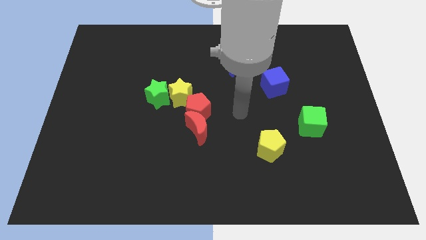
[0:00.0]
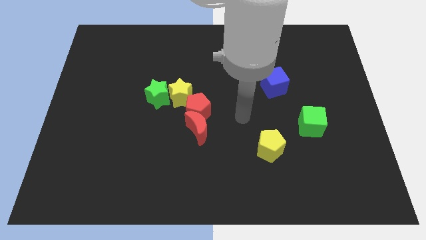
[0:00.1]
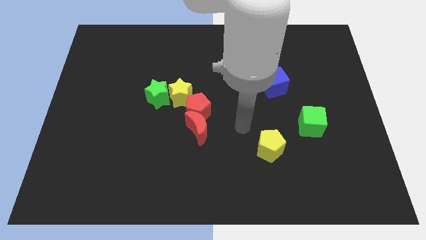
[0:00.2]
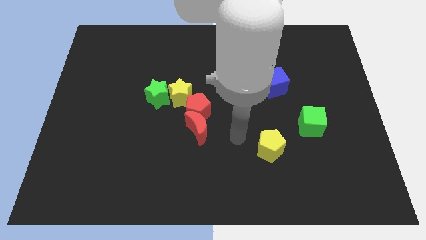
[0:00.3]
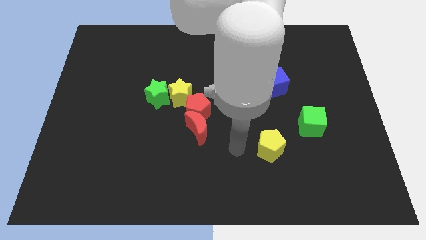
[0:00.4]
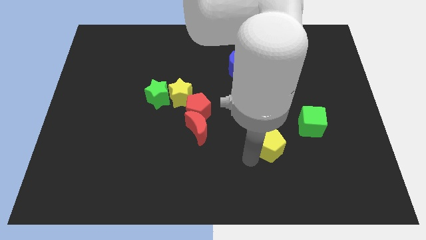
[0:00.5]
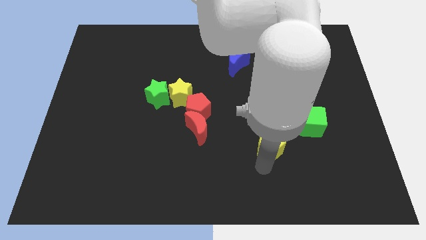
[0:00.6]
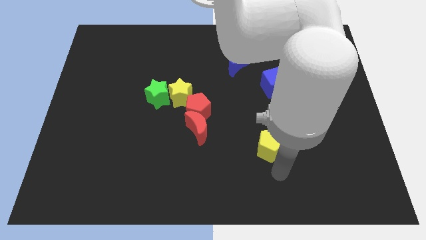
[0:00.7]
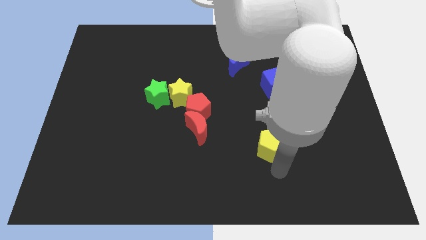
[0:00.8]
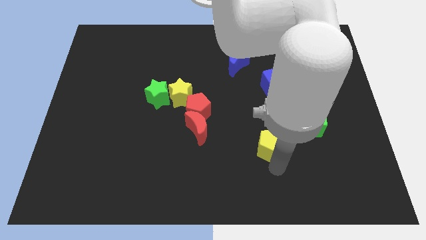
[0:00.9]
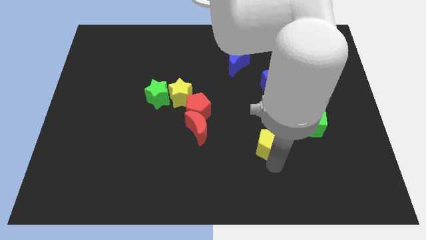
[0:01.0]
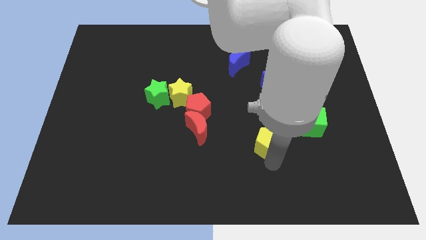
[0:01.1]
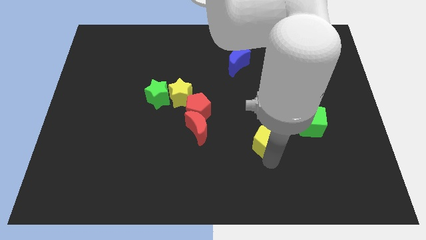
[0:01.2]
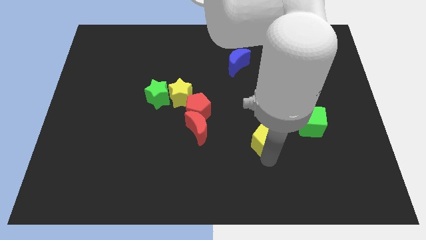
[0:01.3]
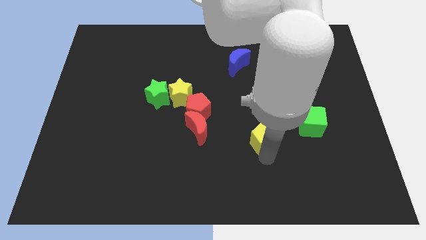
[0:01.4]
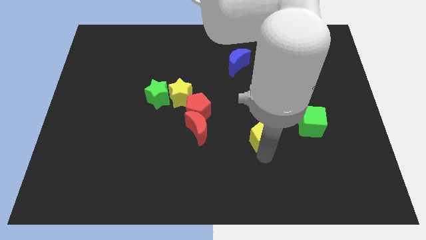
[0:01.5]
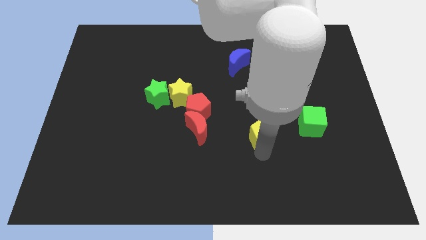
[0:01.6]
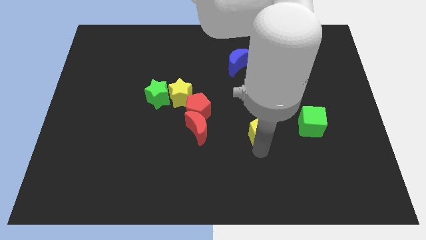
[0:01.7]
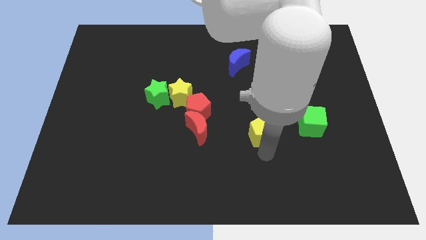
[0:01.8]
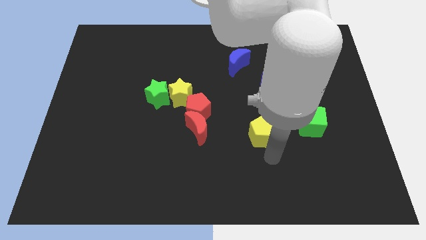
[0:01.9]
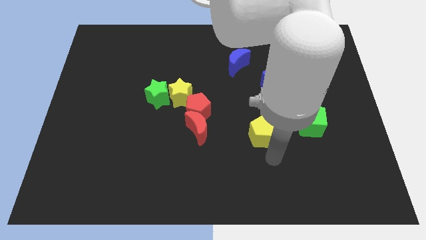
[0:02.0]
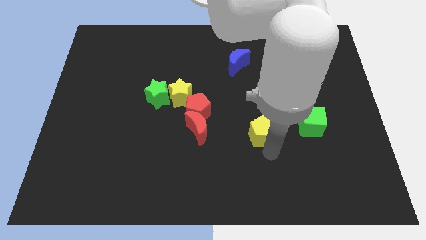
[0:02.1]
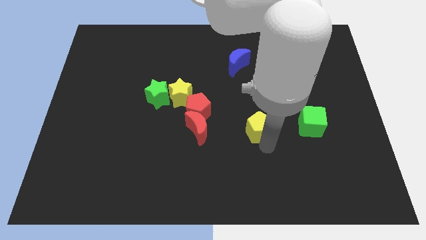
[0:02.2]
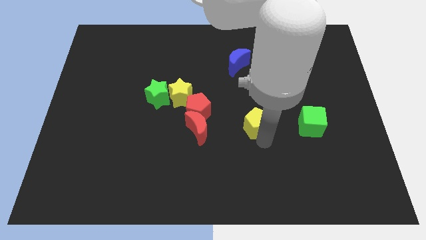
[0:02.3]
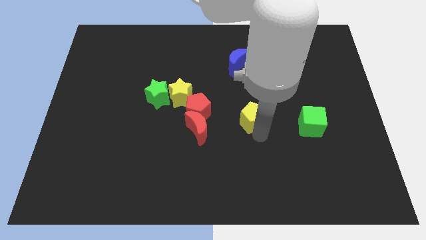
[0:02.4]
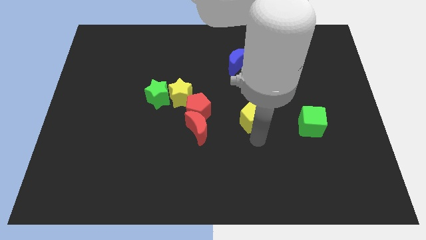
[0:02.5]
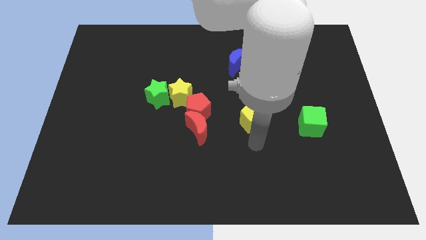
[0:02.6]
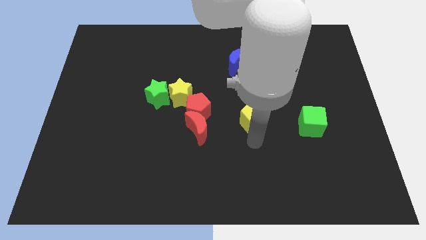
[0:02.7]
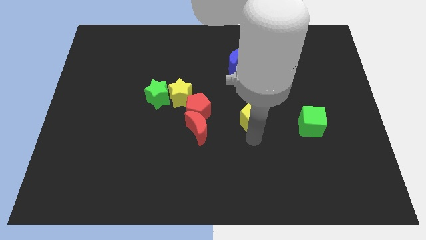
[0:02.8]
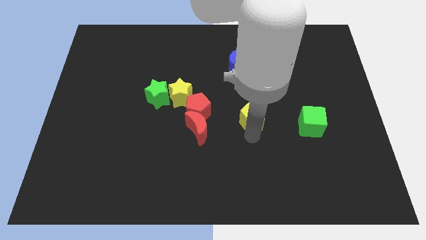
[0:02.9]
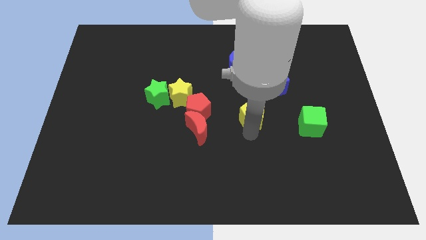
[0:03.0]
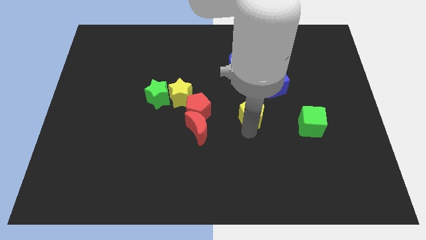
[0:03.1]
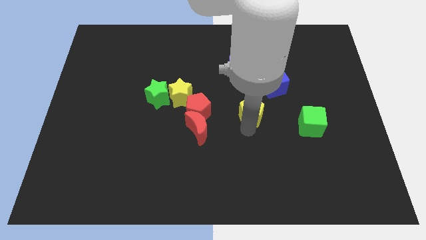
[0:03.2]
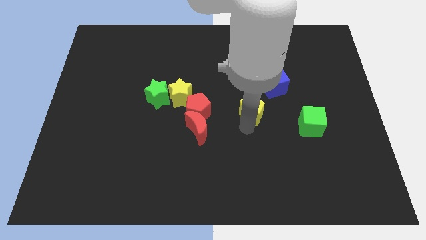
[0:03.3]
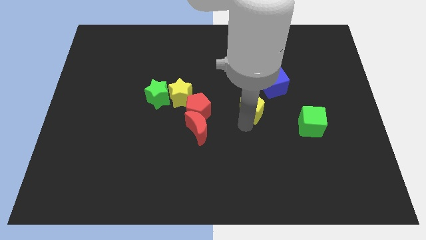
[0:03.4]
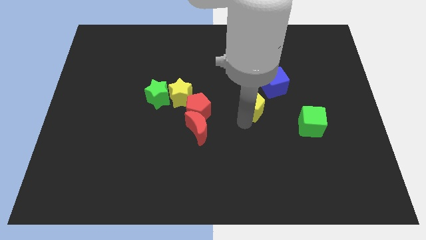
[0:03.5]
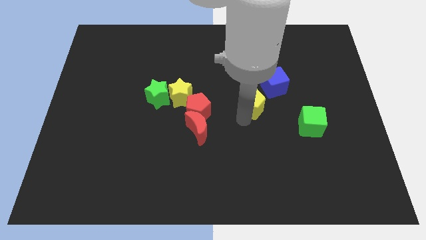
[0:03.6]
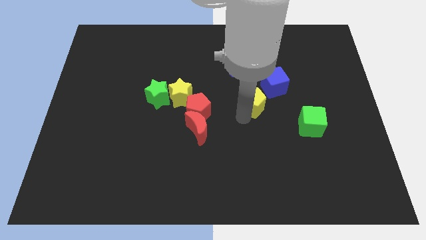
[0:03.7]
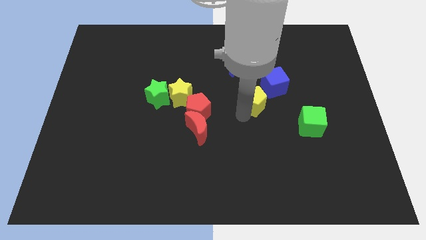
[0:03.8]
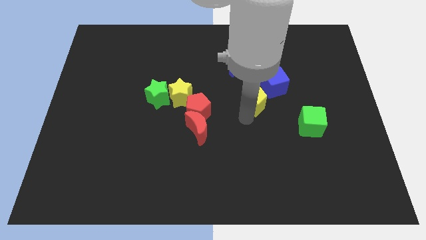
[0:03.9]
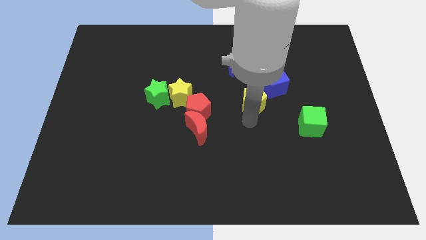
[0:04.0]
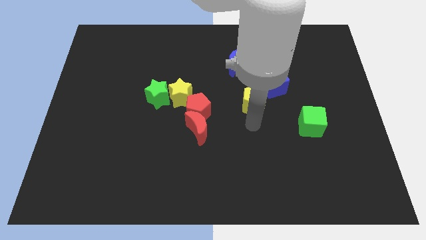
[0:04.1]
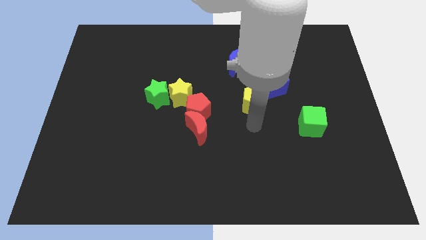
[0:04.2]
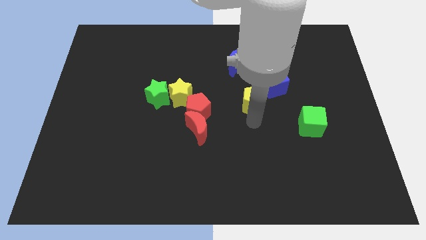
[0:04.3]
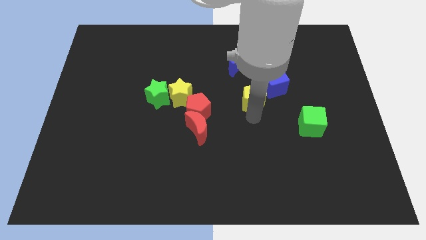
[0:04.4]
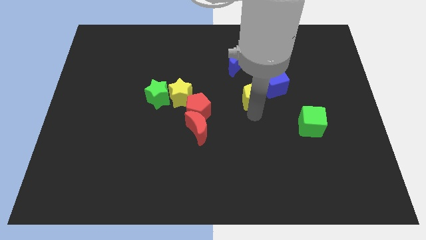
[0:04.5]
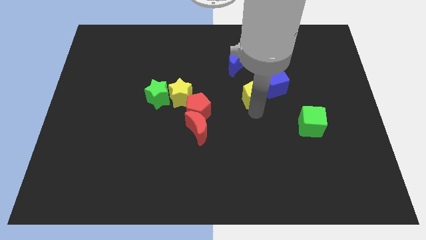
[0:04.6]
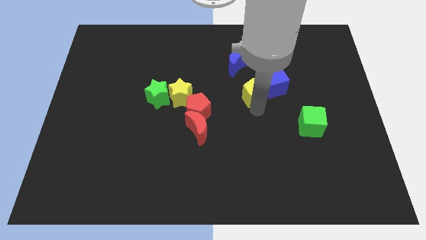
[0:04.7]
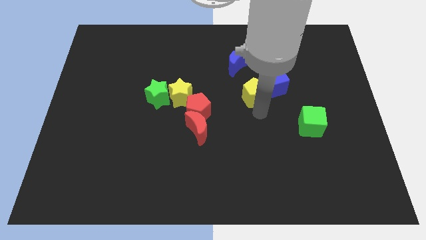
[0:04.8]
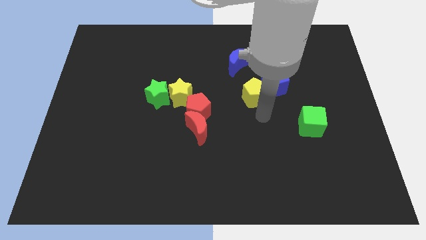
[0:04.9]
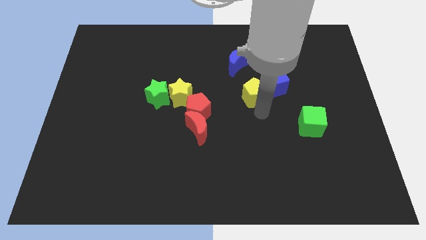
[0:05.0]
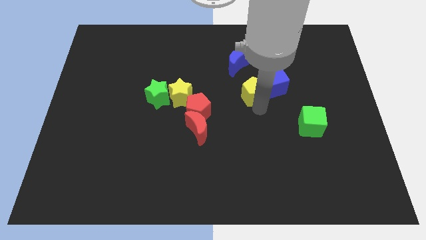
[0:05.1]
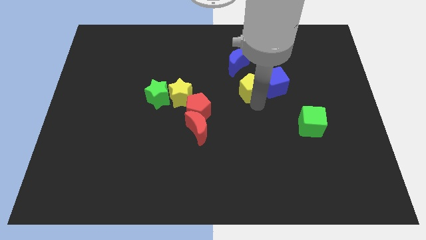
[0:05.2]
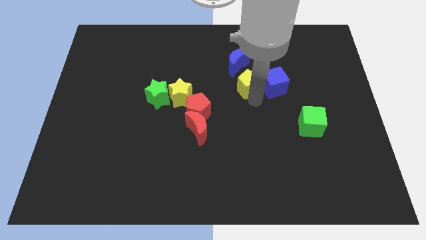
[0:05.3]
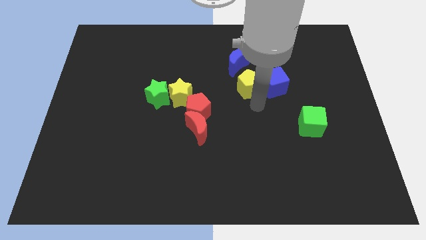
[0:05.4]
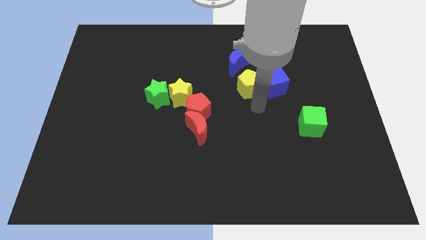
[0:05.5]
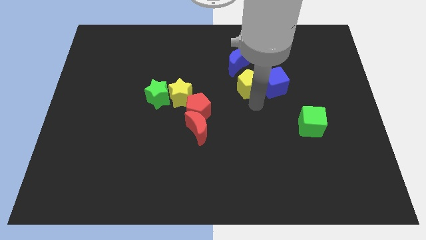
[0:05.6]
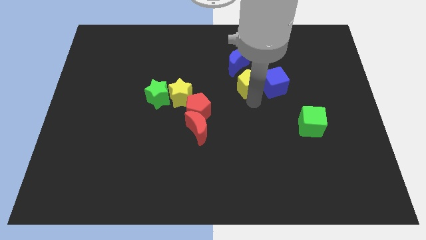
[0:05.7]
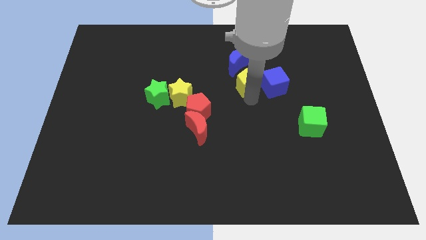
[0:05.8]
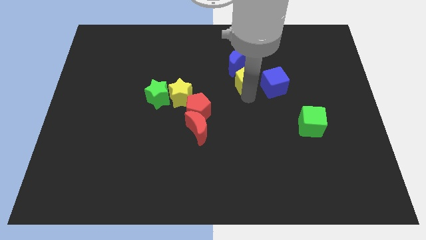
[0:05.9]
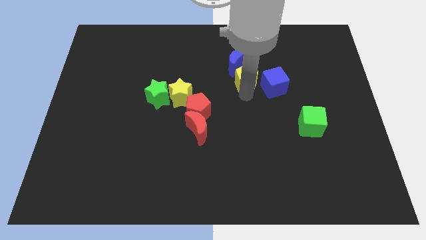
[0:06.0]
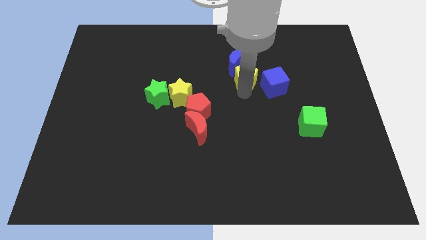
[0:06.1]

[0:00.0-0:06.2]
put the yellow pentagon to the blue moon

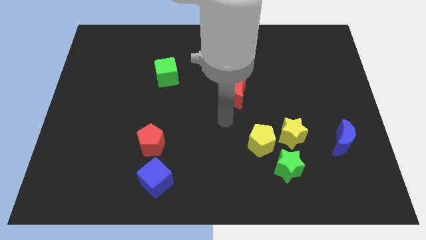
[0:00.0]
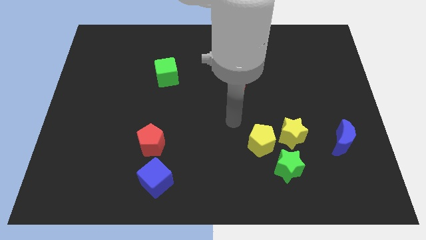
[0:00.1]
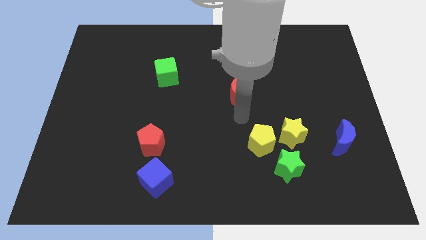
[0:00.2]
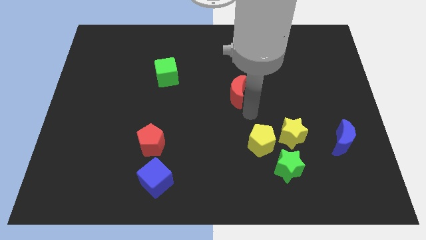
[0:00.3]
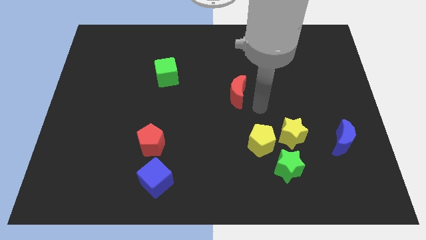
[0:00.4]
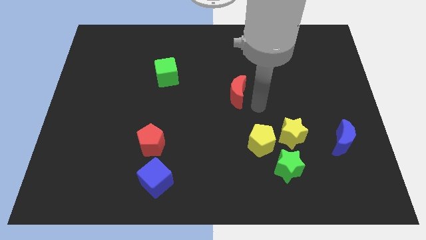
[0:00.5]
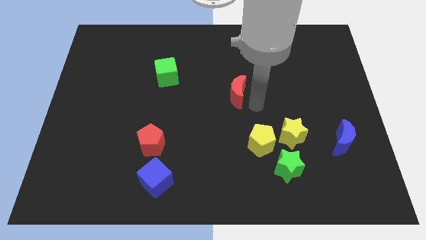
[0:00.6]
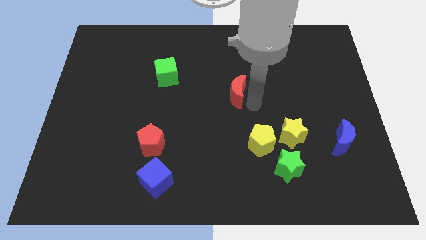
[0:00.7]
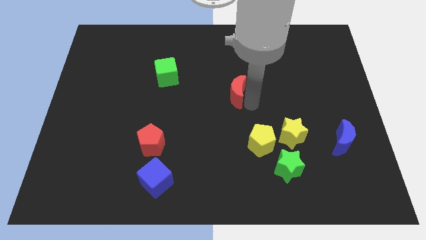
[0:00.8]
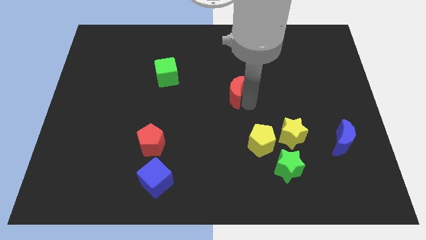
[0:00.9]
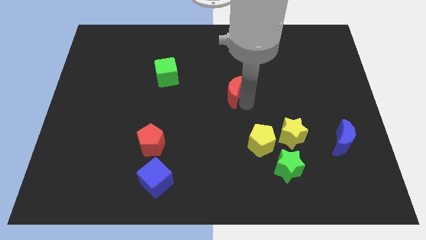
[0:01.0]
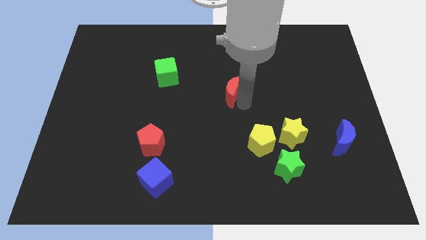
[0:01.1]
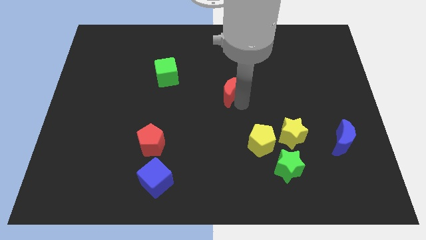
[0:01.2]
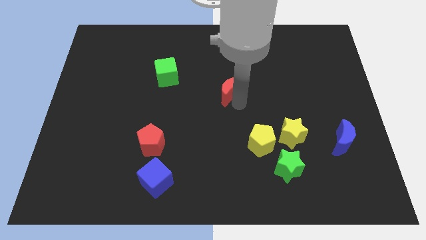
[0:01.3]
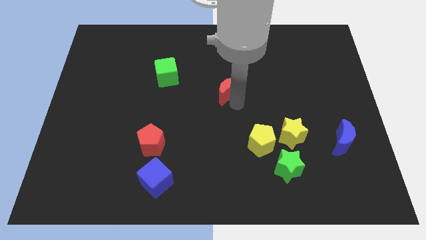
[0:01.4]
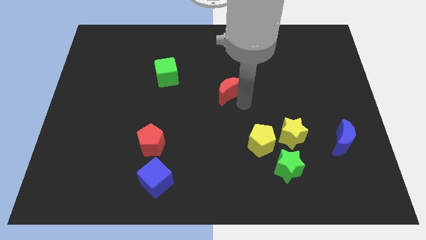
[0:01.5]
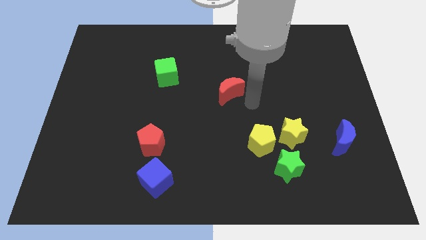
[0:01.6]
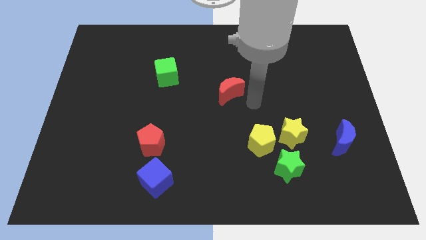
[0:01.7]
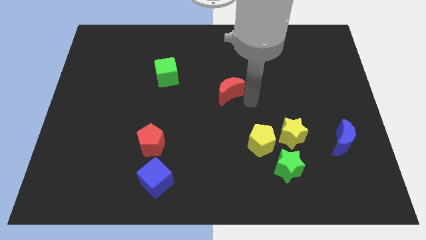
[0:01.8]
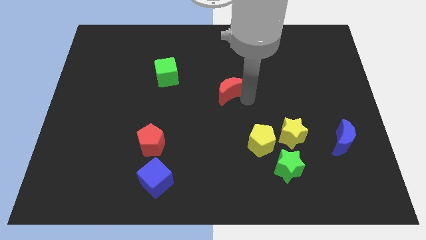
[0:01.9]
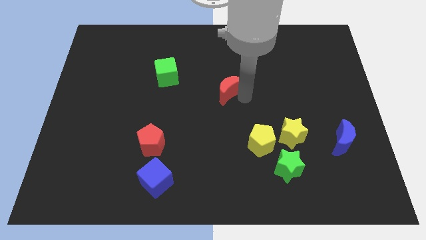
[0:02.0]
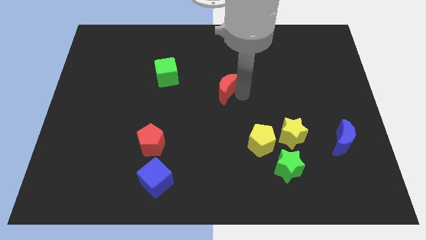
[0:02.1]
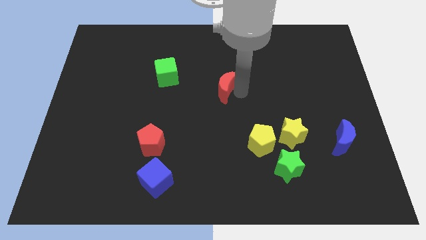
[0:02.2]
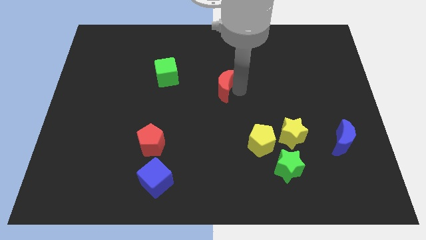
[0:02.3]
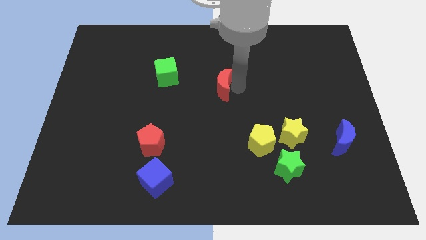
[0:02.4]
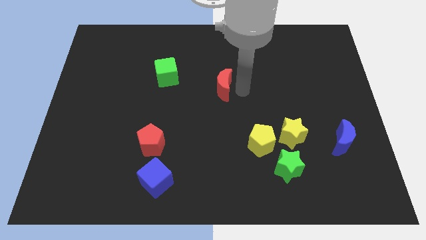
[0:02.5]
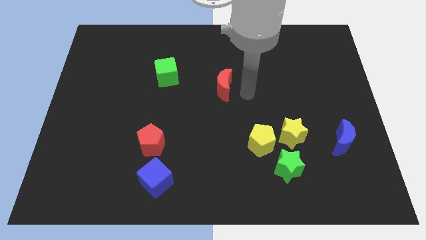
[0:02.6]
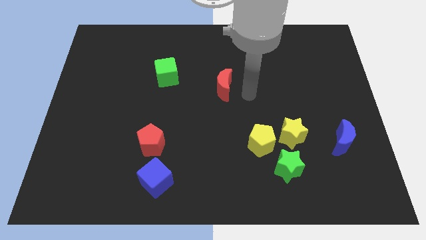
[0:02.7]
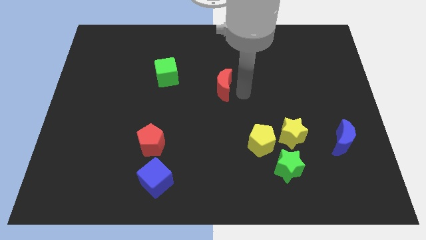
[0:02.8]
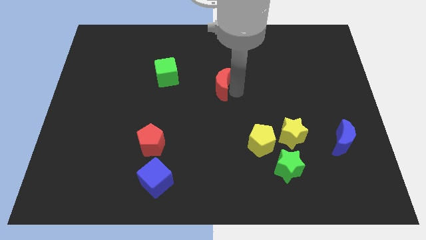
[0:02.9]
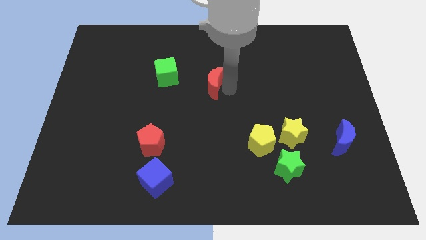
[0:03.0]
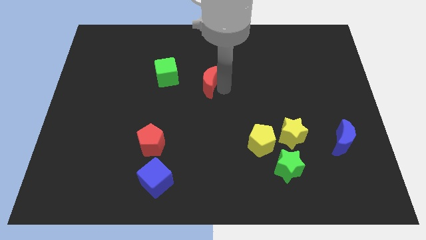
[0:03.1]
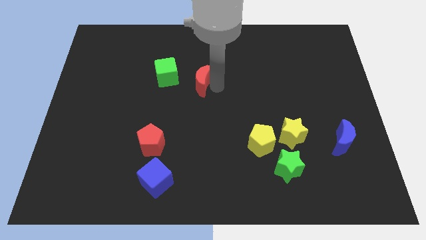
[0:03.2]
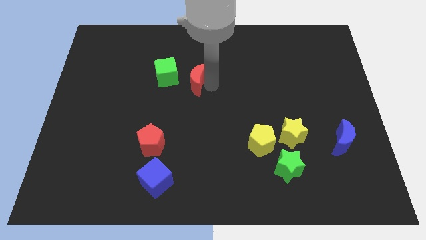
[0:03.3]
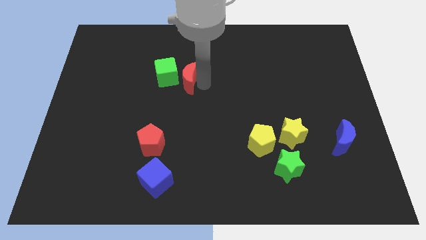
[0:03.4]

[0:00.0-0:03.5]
put the red moon close to the green cube
